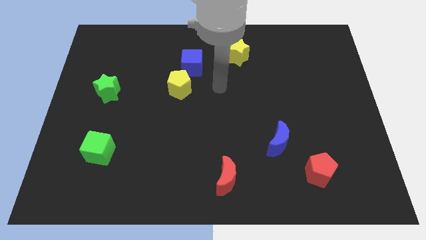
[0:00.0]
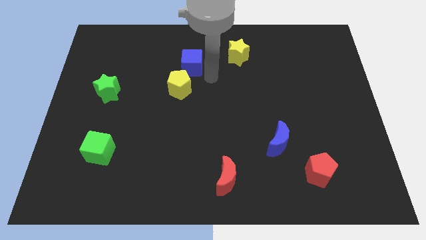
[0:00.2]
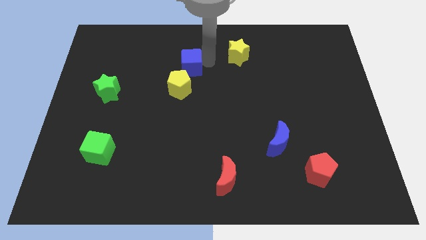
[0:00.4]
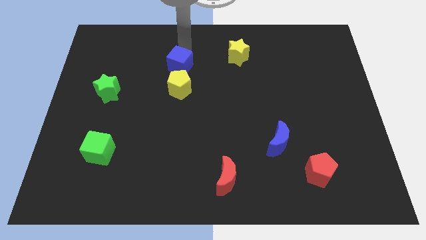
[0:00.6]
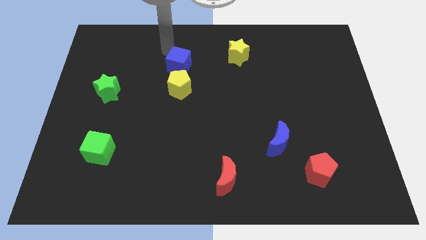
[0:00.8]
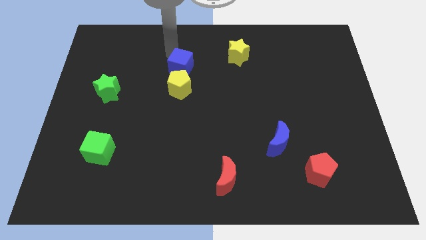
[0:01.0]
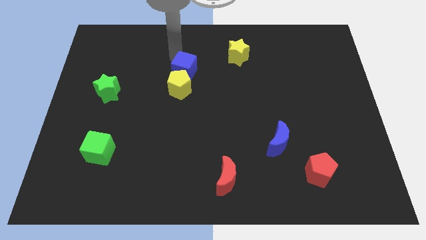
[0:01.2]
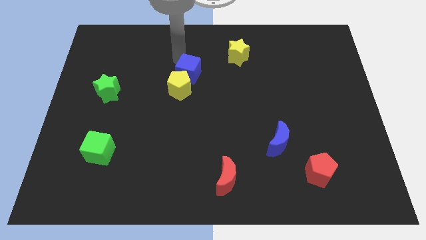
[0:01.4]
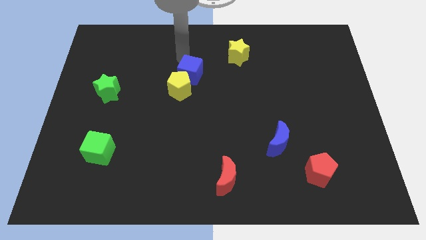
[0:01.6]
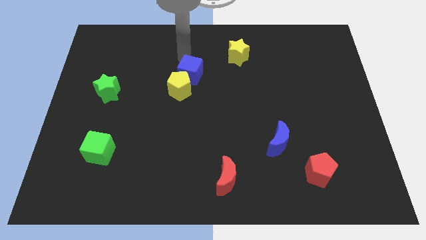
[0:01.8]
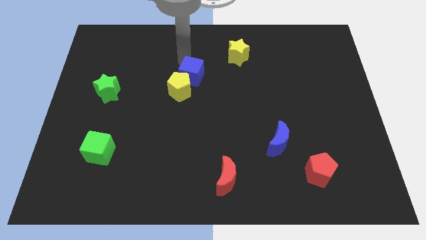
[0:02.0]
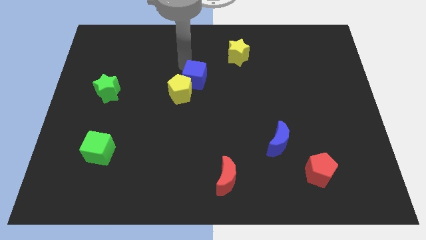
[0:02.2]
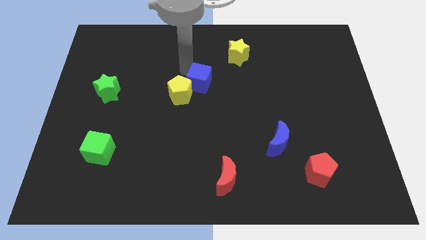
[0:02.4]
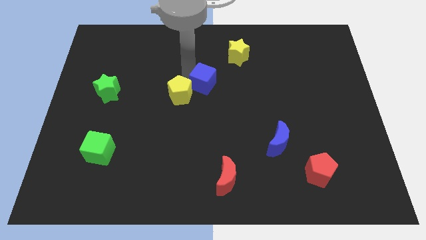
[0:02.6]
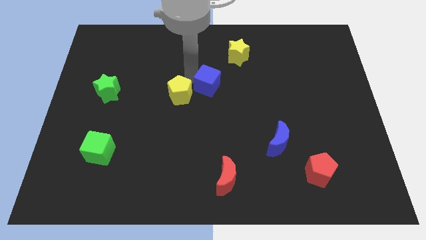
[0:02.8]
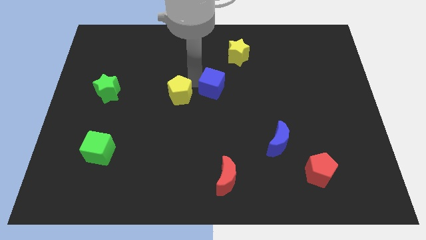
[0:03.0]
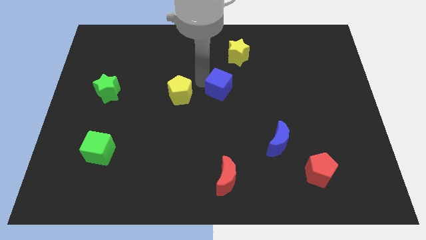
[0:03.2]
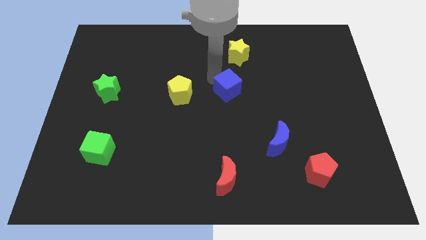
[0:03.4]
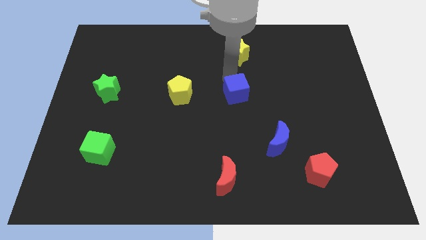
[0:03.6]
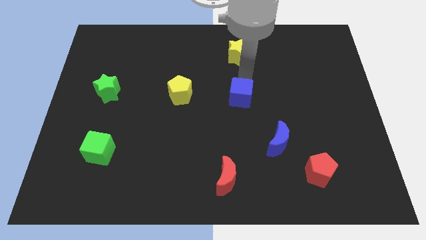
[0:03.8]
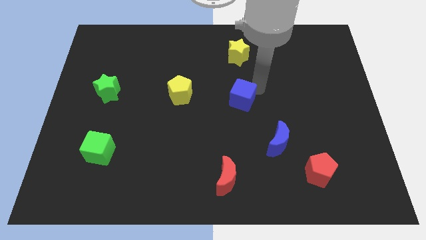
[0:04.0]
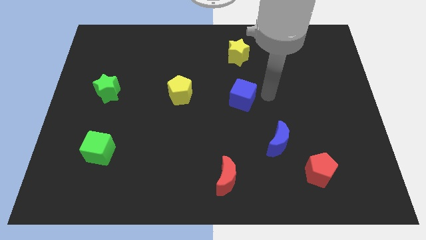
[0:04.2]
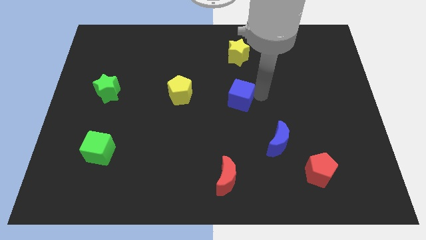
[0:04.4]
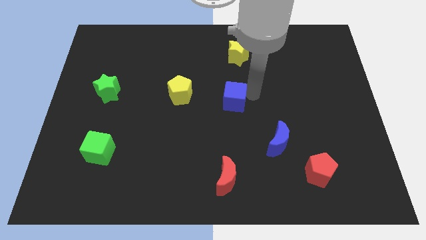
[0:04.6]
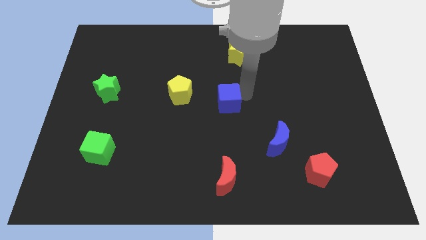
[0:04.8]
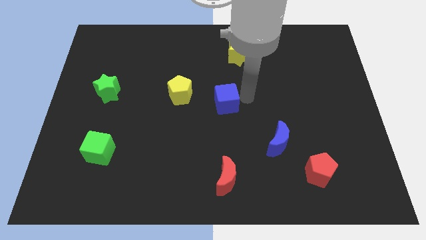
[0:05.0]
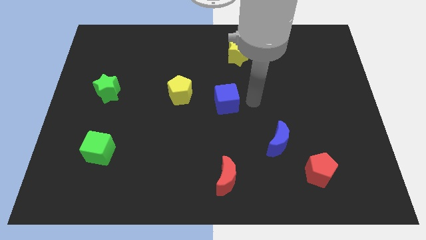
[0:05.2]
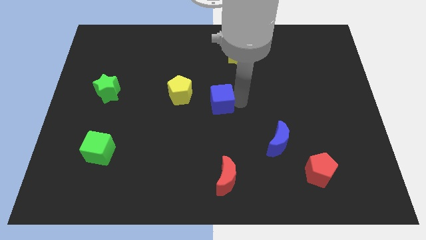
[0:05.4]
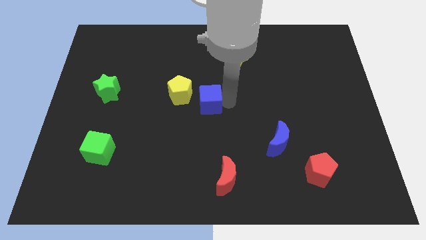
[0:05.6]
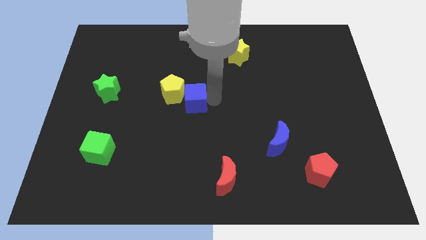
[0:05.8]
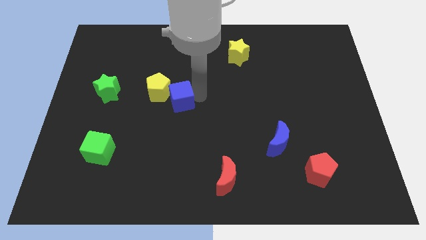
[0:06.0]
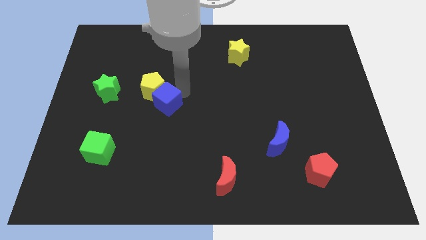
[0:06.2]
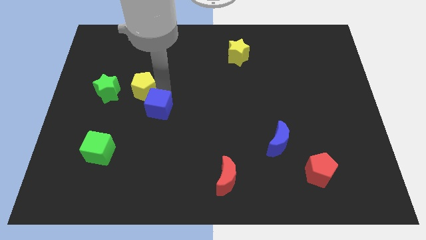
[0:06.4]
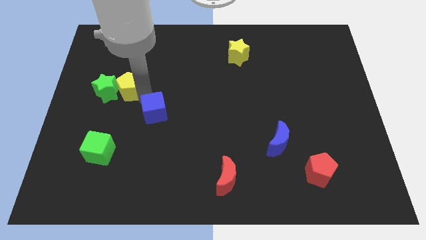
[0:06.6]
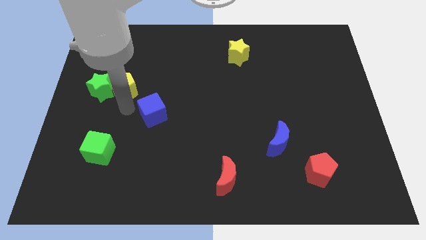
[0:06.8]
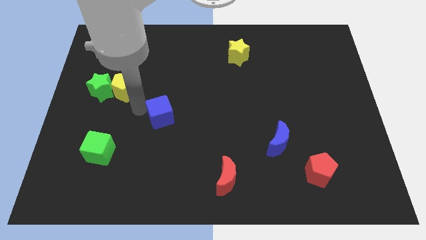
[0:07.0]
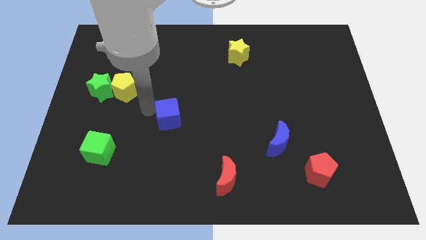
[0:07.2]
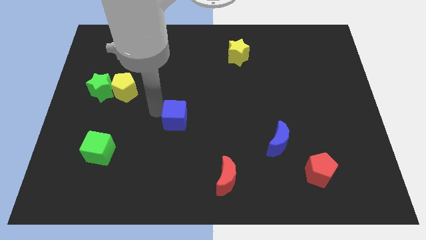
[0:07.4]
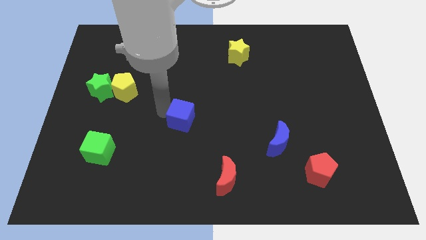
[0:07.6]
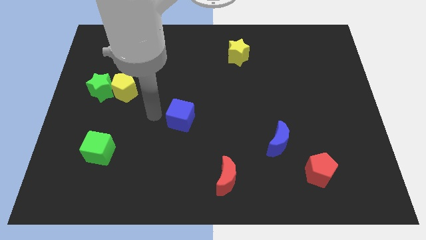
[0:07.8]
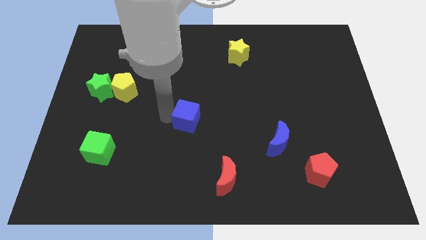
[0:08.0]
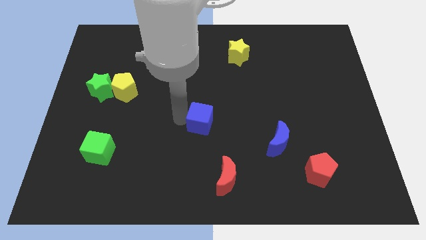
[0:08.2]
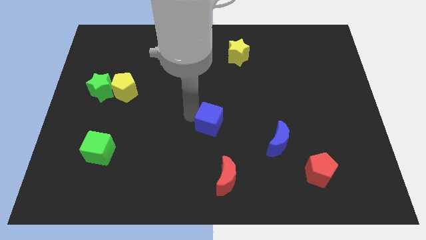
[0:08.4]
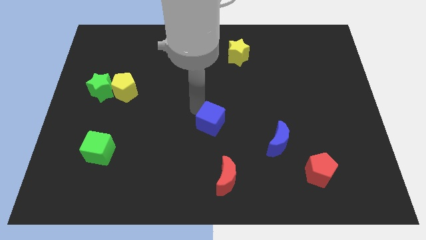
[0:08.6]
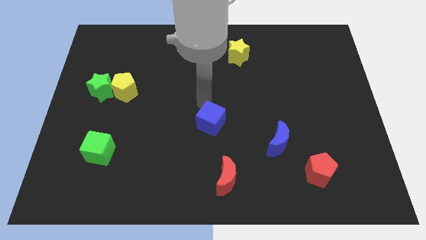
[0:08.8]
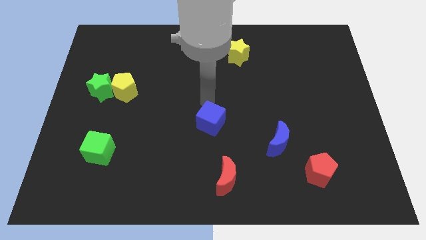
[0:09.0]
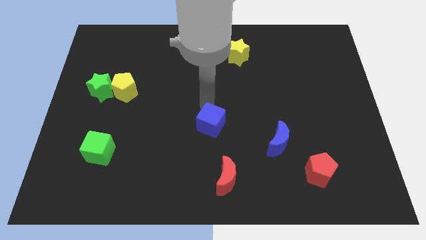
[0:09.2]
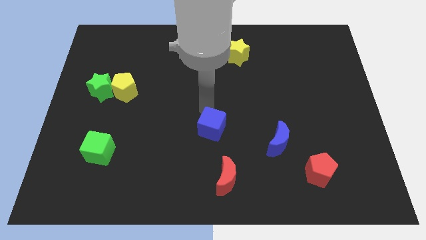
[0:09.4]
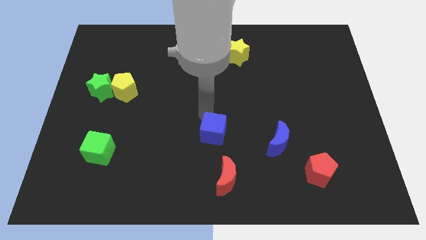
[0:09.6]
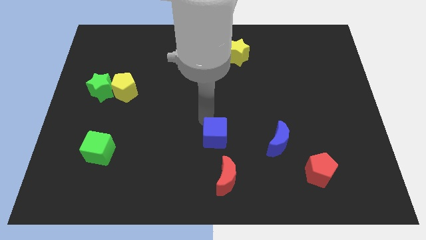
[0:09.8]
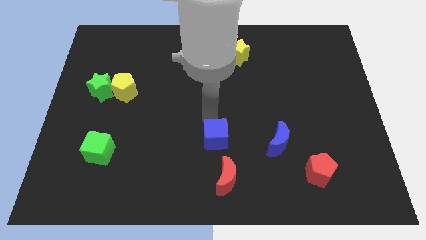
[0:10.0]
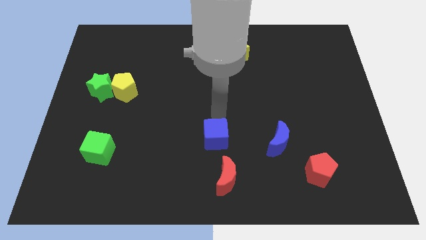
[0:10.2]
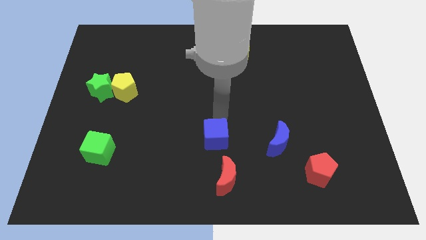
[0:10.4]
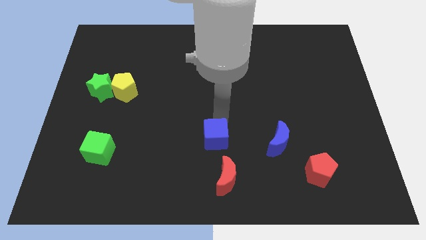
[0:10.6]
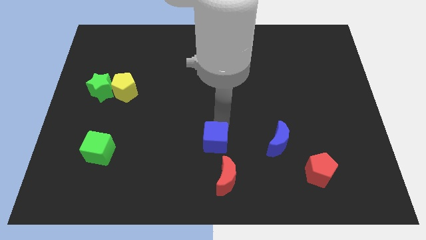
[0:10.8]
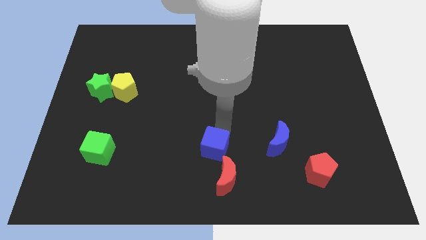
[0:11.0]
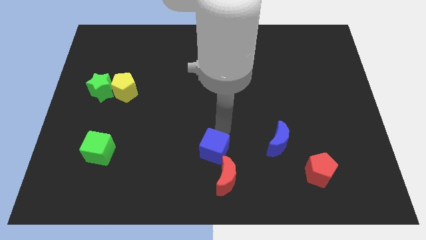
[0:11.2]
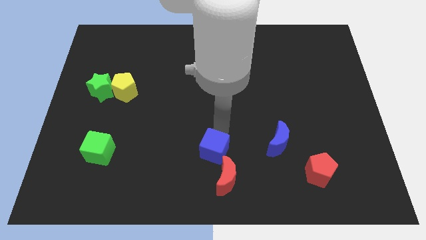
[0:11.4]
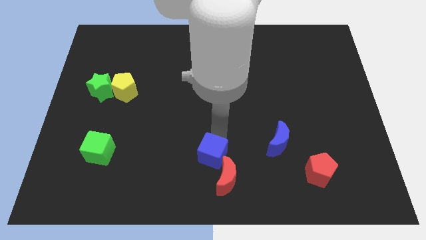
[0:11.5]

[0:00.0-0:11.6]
move the blue cube to the bottom
